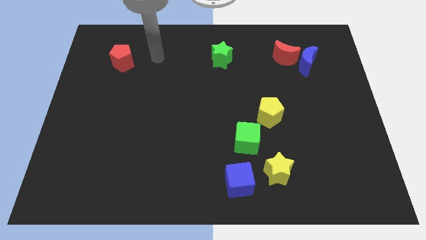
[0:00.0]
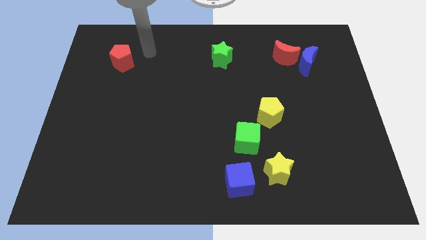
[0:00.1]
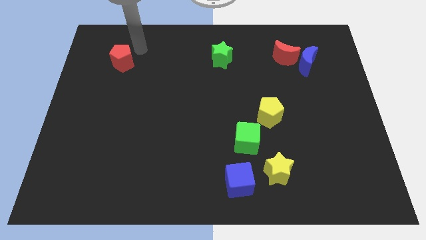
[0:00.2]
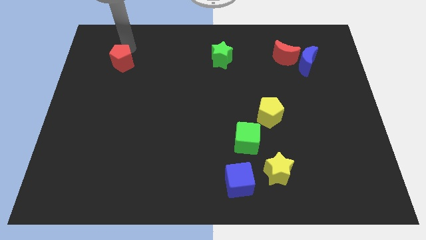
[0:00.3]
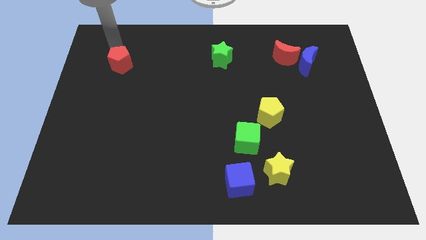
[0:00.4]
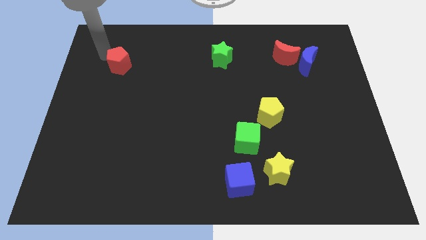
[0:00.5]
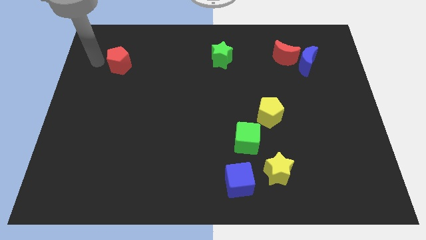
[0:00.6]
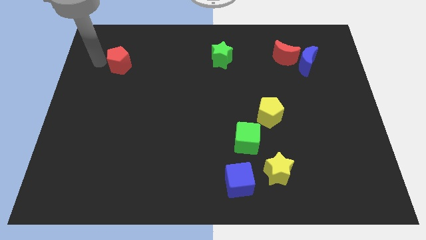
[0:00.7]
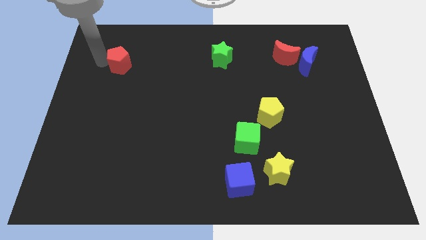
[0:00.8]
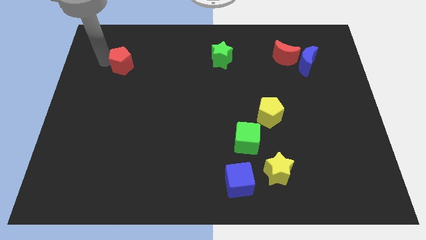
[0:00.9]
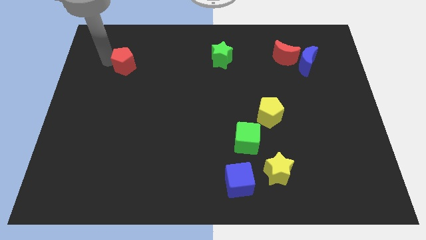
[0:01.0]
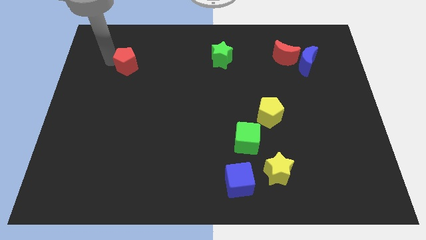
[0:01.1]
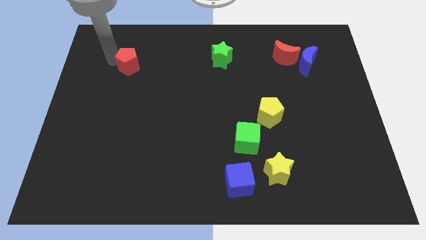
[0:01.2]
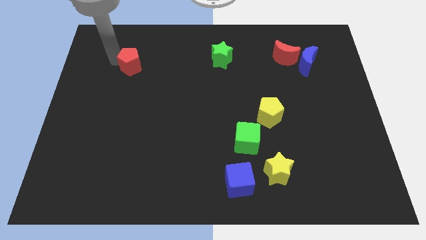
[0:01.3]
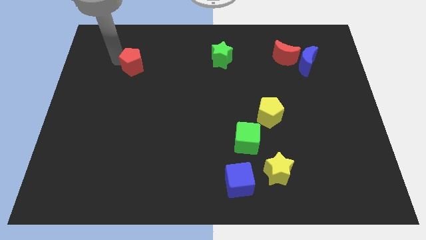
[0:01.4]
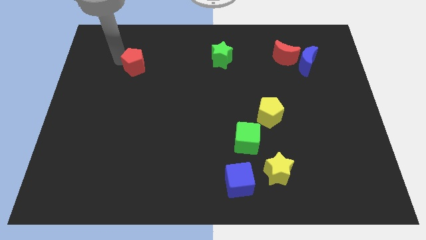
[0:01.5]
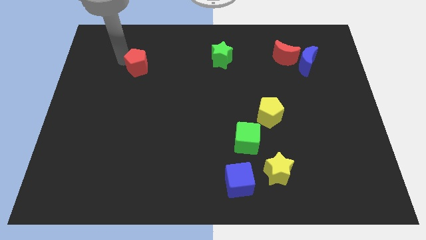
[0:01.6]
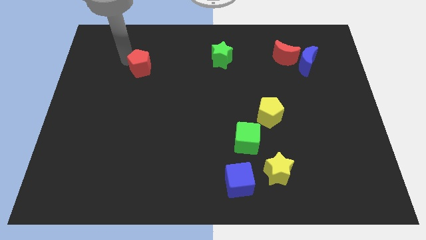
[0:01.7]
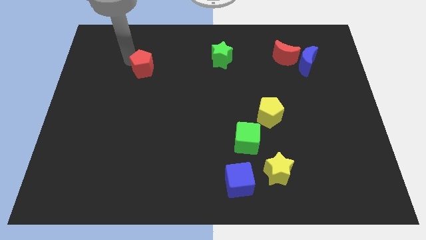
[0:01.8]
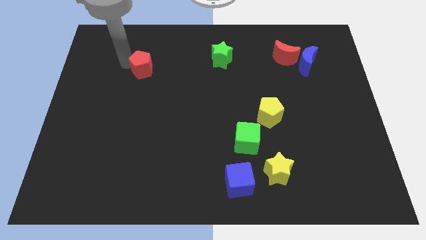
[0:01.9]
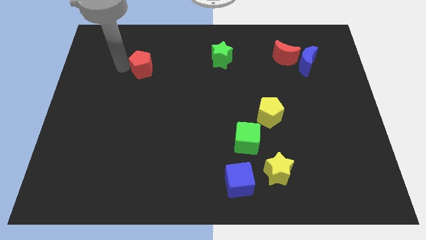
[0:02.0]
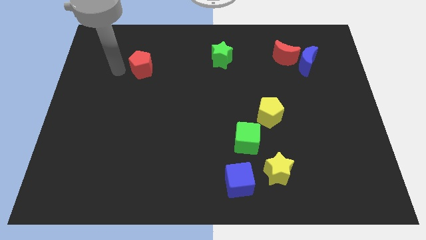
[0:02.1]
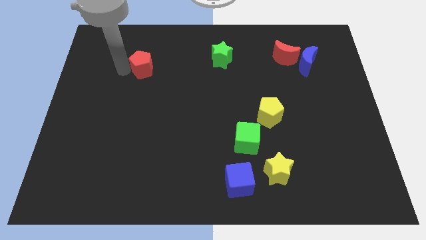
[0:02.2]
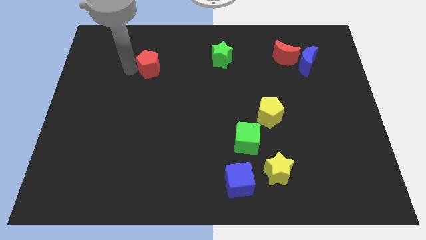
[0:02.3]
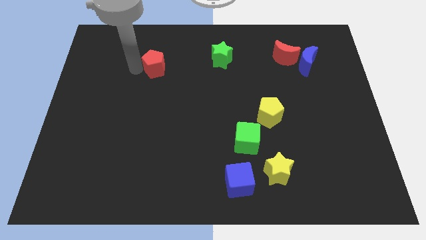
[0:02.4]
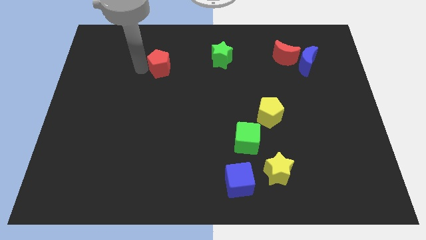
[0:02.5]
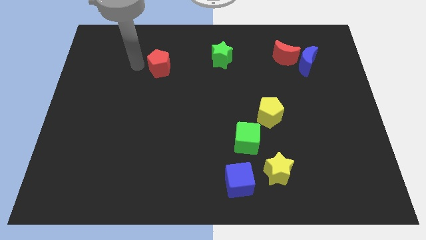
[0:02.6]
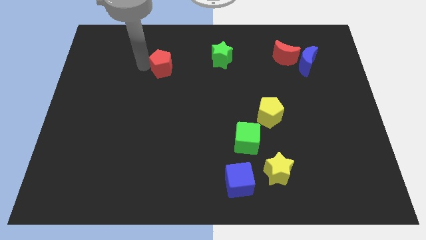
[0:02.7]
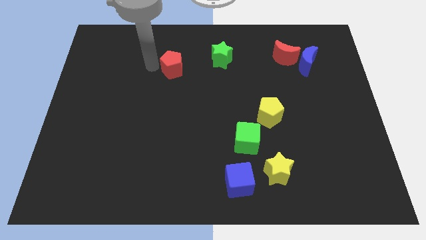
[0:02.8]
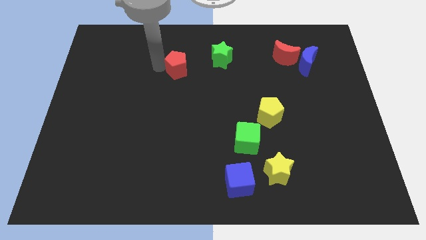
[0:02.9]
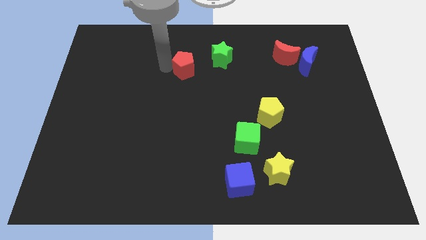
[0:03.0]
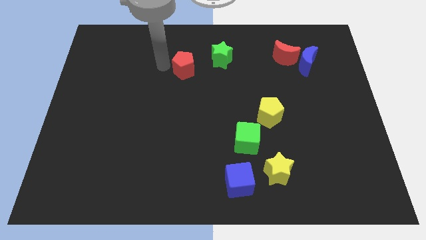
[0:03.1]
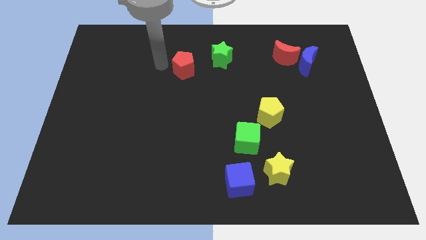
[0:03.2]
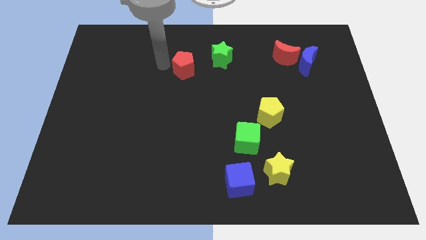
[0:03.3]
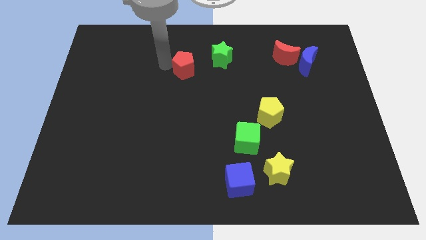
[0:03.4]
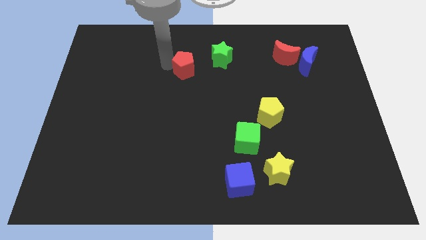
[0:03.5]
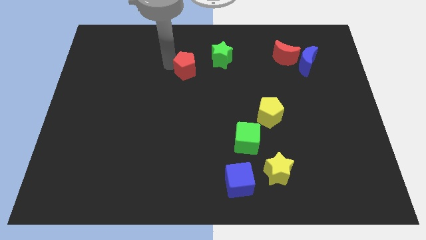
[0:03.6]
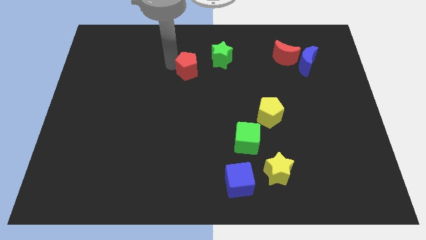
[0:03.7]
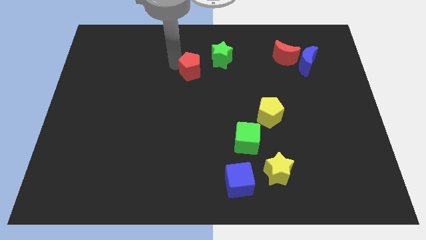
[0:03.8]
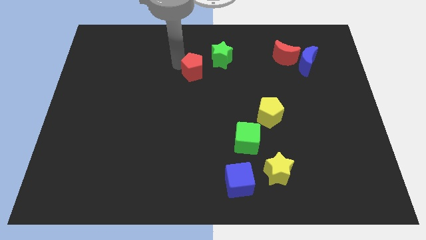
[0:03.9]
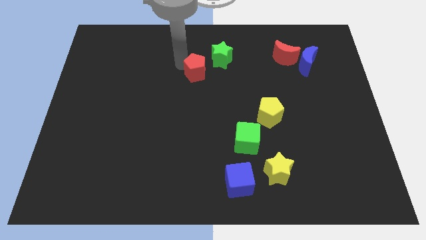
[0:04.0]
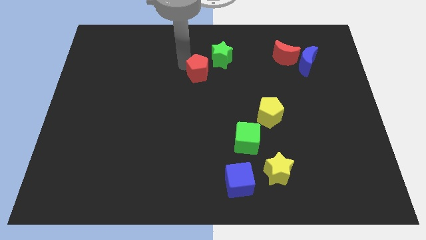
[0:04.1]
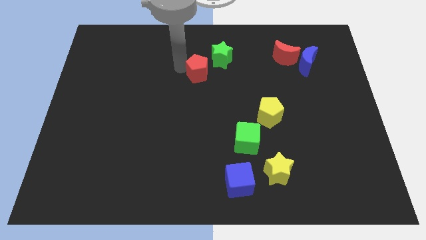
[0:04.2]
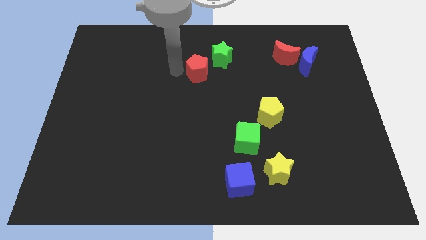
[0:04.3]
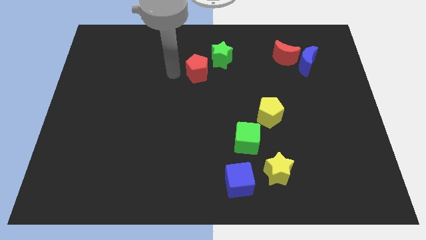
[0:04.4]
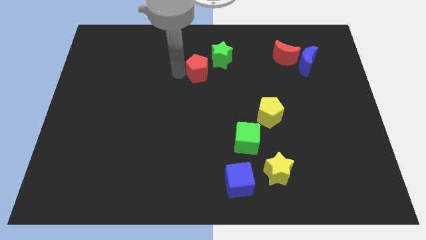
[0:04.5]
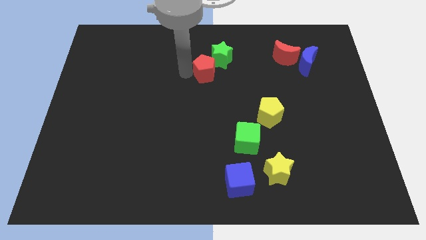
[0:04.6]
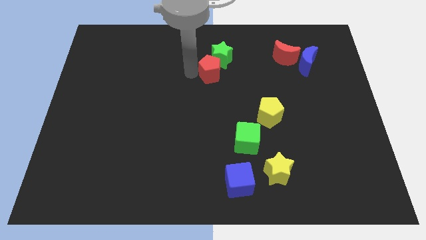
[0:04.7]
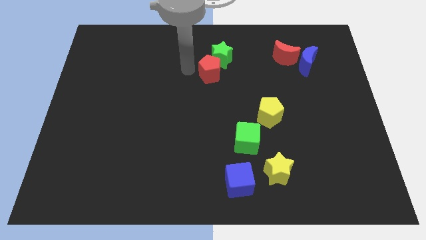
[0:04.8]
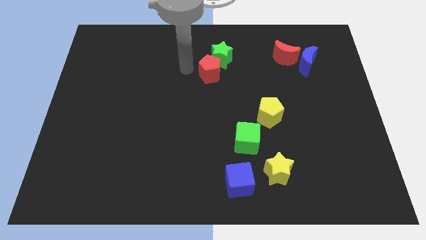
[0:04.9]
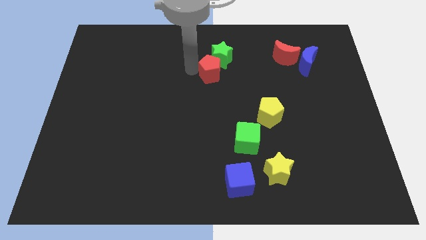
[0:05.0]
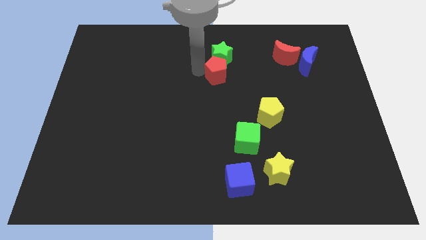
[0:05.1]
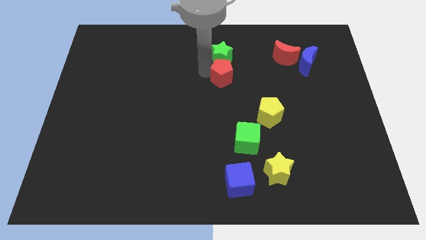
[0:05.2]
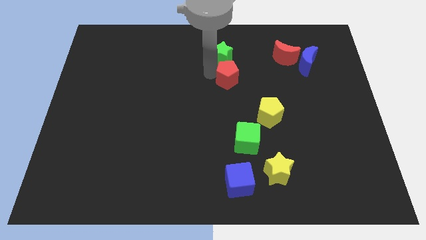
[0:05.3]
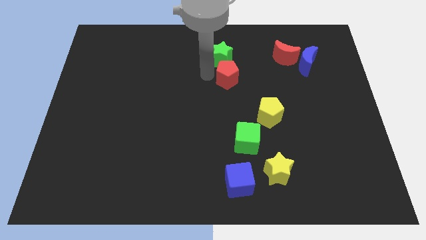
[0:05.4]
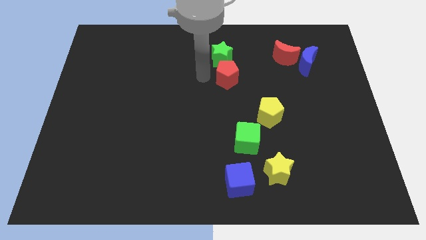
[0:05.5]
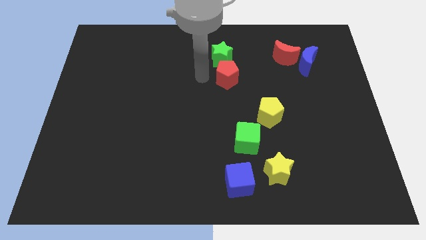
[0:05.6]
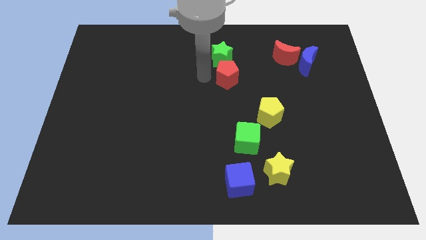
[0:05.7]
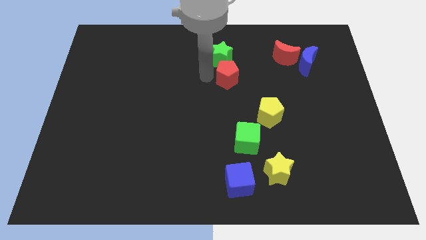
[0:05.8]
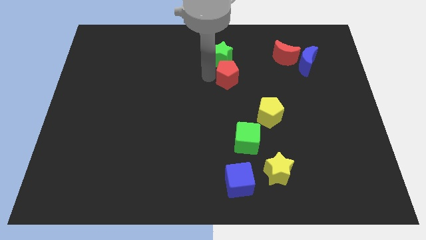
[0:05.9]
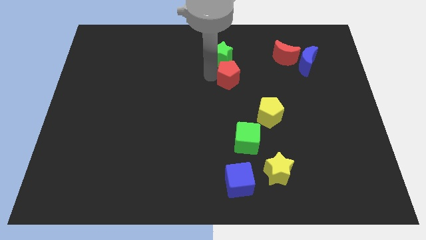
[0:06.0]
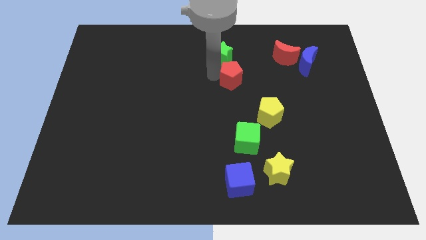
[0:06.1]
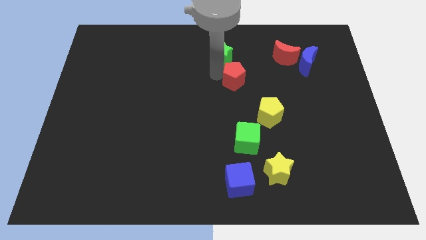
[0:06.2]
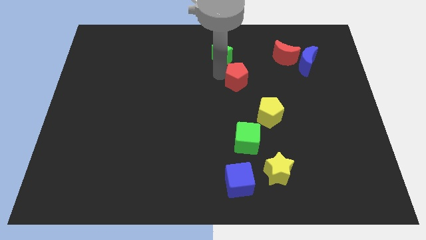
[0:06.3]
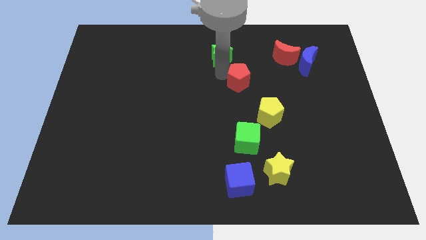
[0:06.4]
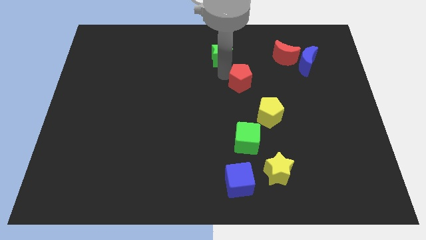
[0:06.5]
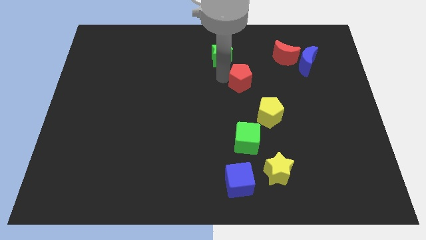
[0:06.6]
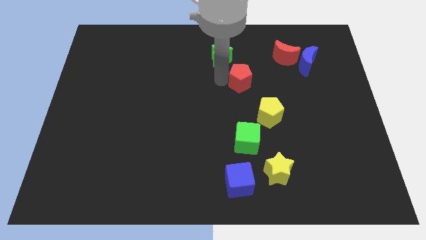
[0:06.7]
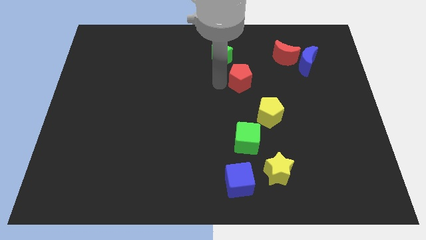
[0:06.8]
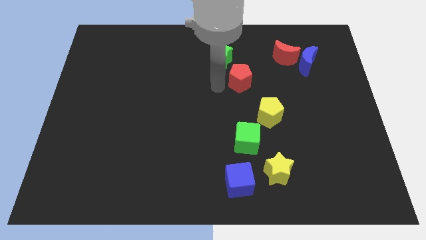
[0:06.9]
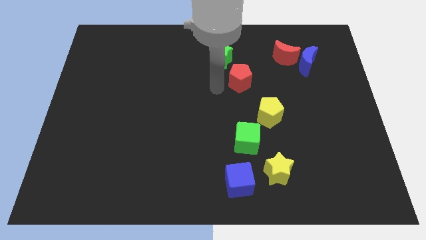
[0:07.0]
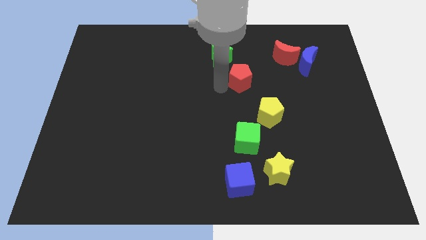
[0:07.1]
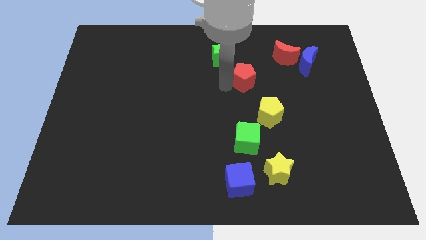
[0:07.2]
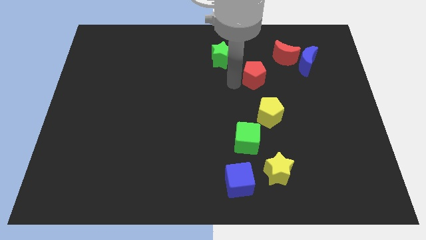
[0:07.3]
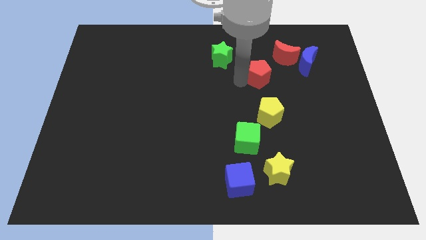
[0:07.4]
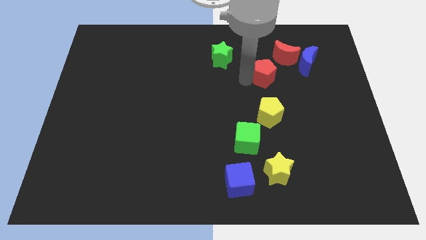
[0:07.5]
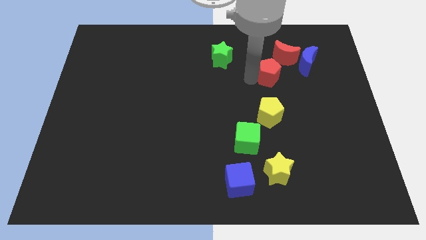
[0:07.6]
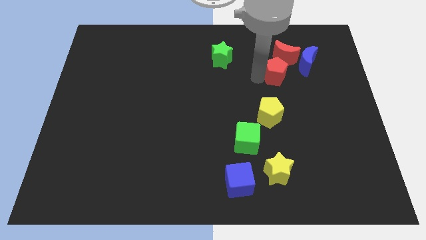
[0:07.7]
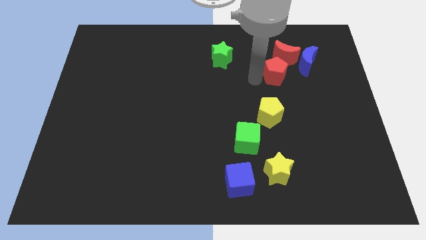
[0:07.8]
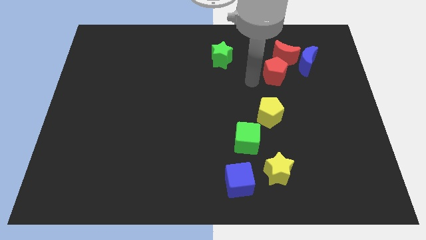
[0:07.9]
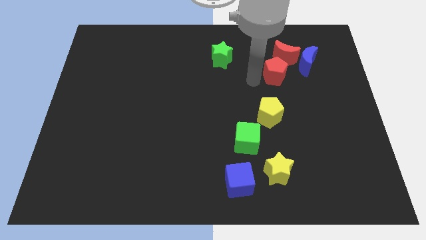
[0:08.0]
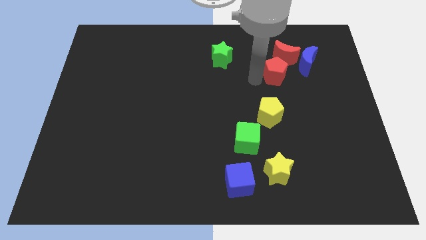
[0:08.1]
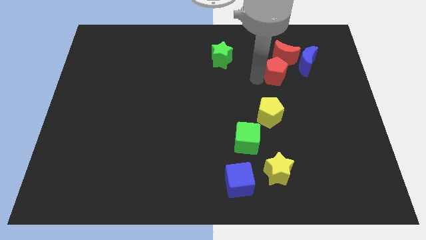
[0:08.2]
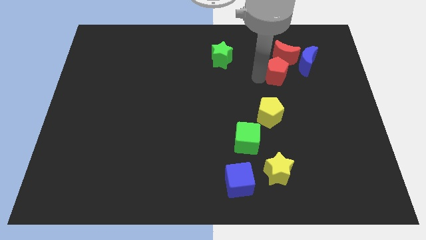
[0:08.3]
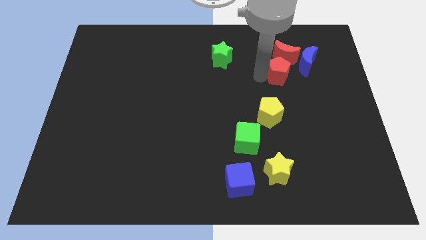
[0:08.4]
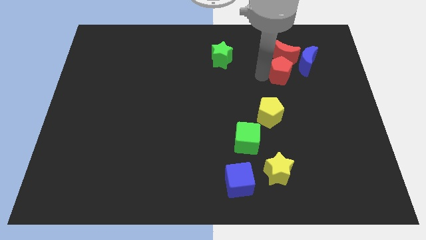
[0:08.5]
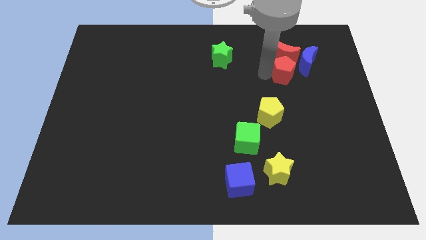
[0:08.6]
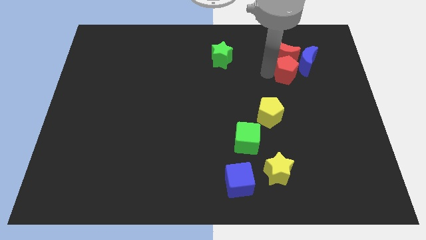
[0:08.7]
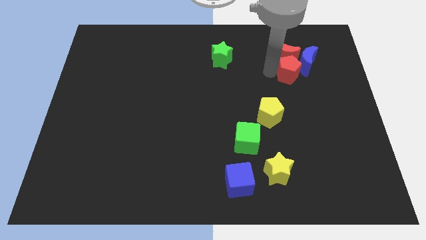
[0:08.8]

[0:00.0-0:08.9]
push the red pentagon close to the blue moon
